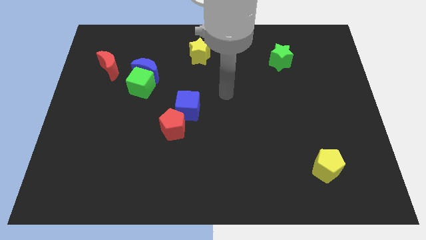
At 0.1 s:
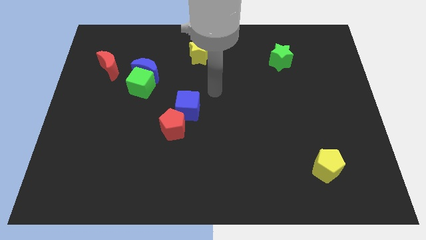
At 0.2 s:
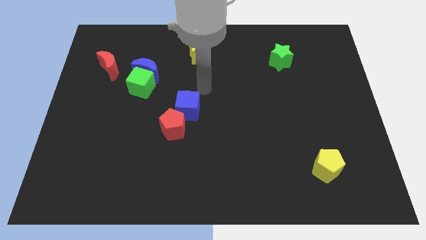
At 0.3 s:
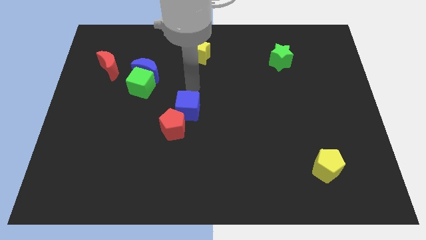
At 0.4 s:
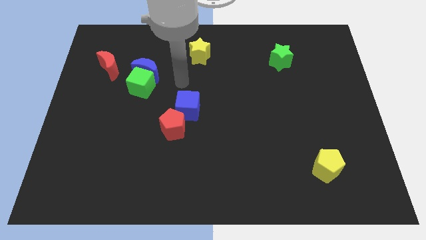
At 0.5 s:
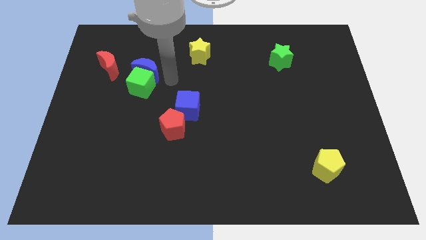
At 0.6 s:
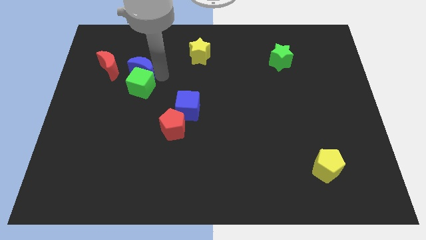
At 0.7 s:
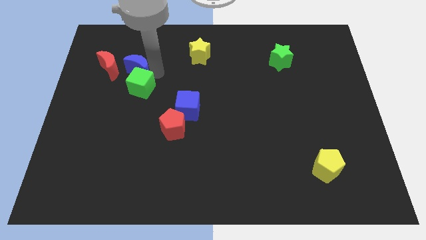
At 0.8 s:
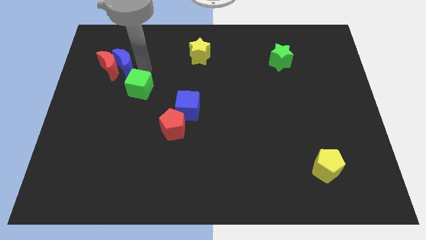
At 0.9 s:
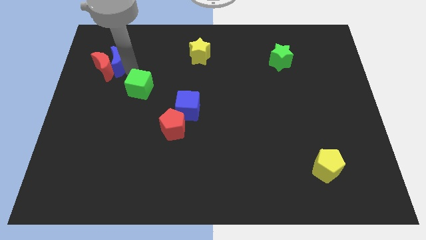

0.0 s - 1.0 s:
move the green cube away from the blue moon

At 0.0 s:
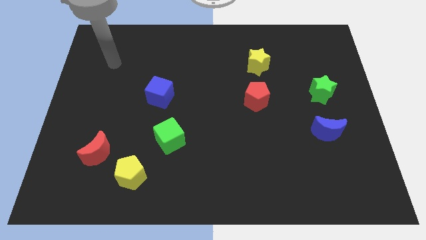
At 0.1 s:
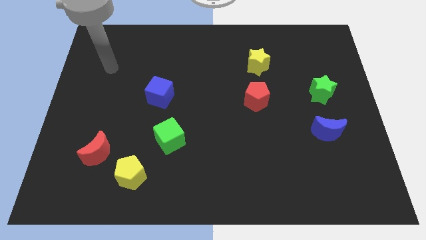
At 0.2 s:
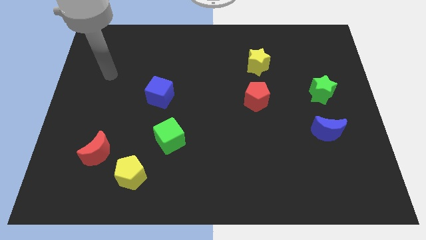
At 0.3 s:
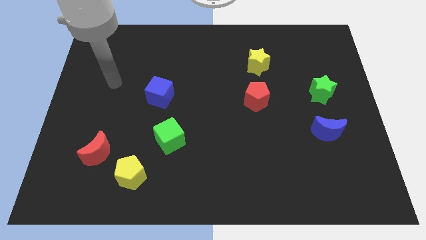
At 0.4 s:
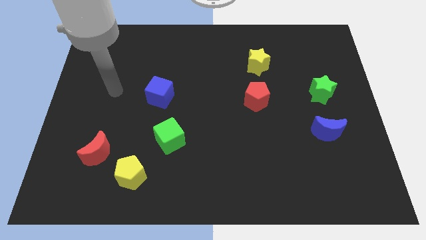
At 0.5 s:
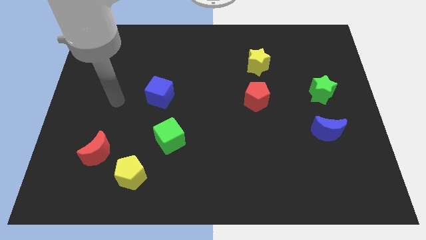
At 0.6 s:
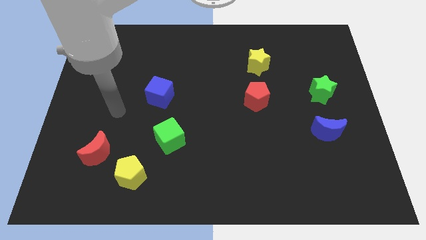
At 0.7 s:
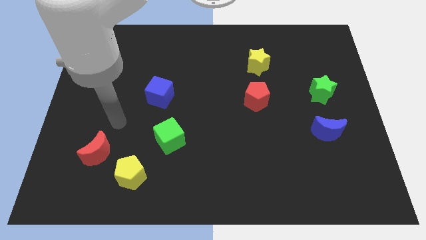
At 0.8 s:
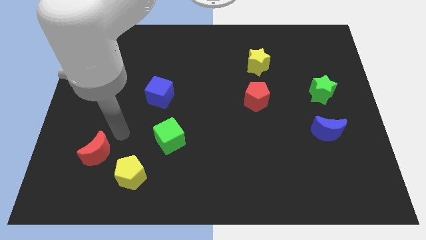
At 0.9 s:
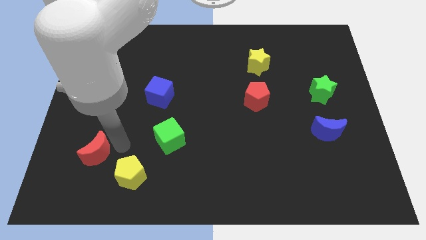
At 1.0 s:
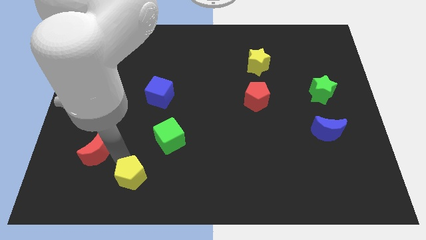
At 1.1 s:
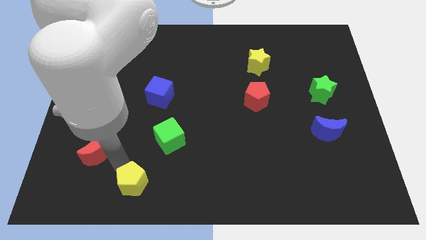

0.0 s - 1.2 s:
move the red moon away from the yellow pentagon

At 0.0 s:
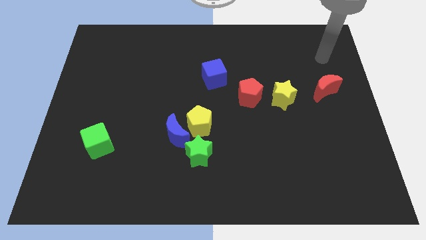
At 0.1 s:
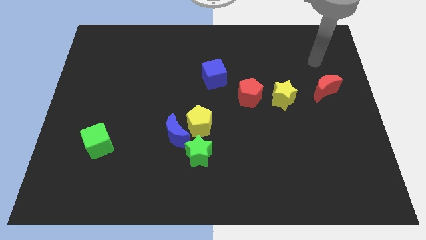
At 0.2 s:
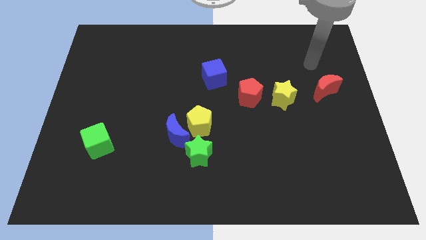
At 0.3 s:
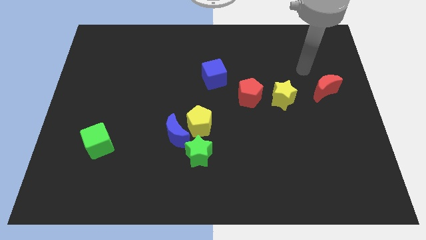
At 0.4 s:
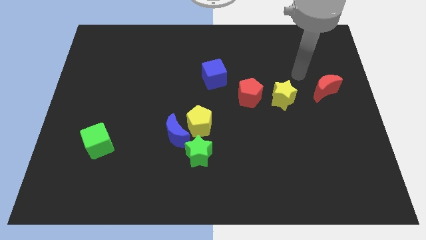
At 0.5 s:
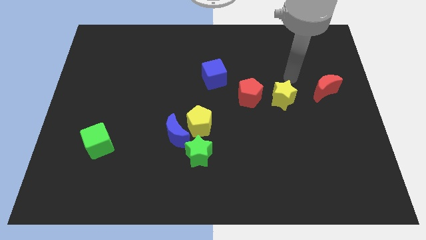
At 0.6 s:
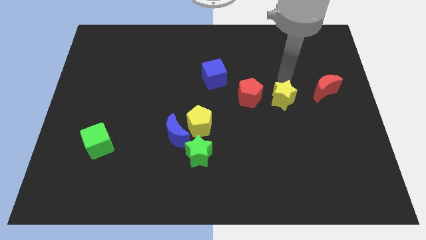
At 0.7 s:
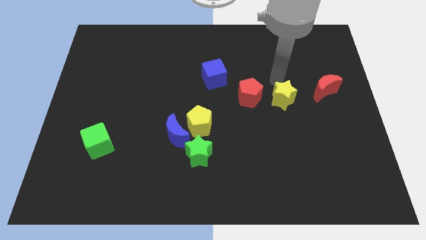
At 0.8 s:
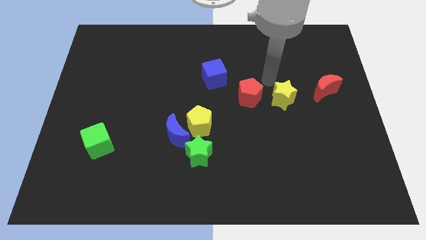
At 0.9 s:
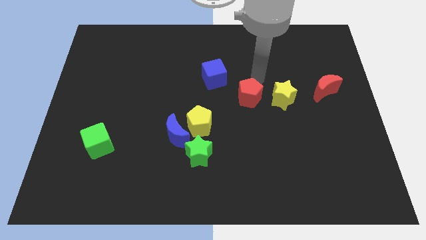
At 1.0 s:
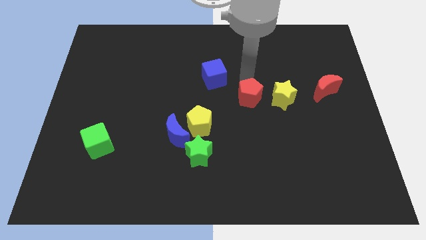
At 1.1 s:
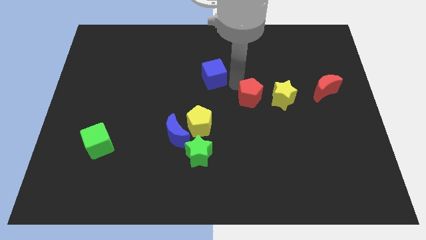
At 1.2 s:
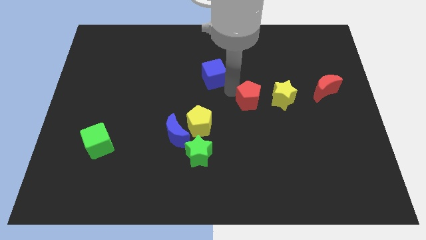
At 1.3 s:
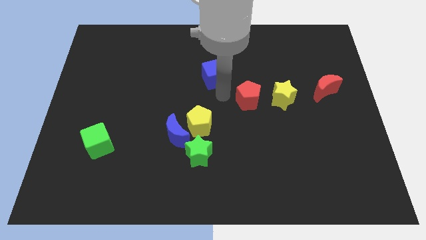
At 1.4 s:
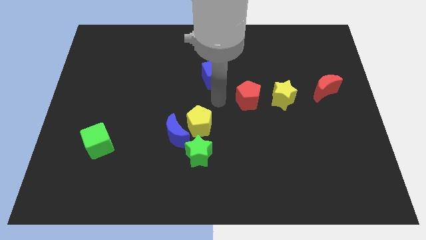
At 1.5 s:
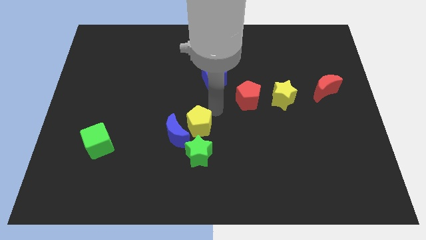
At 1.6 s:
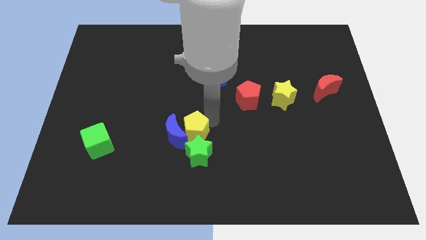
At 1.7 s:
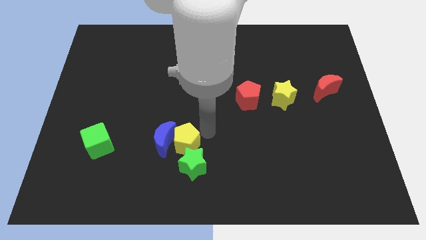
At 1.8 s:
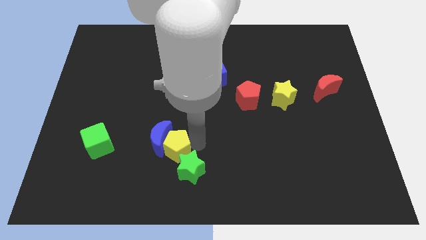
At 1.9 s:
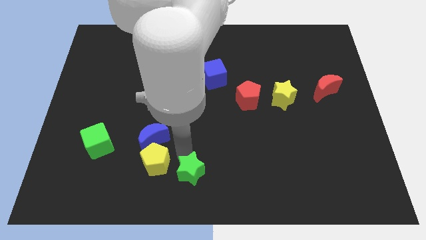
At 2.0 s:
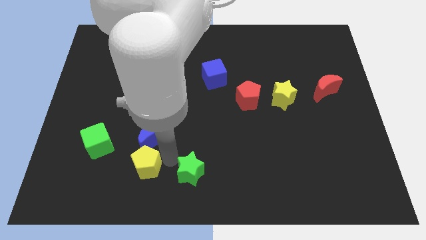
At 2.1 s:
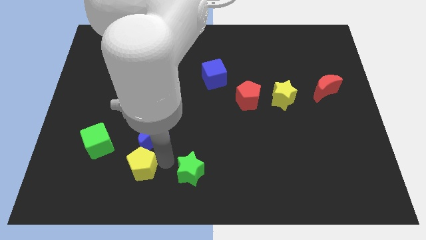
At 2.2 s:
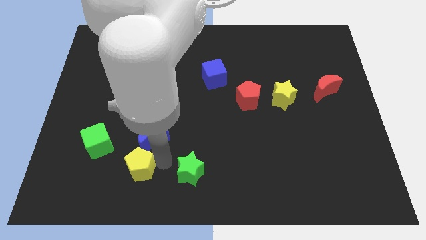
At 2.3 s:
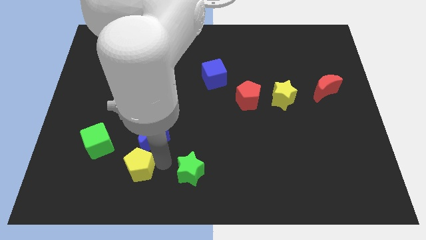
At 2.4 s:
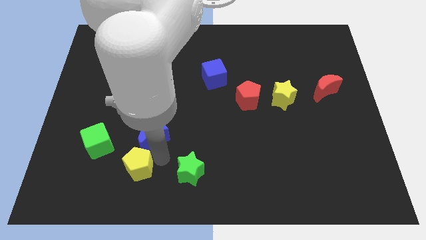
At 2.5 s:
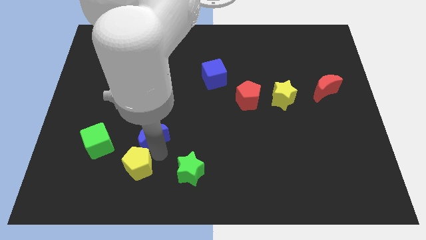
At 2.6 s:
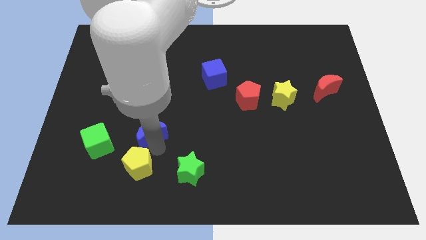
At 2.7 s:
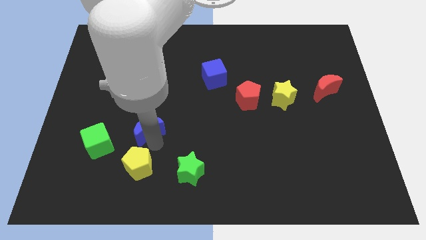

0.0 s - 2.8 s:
separate the blue moon from the yellow pentagon and green star

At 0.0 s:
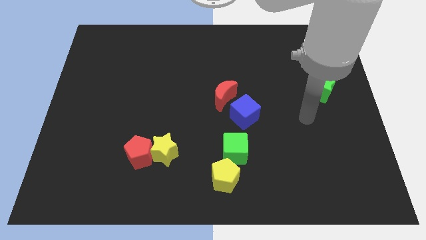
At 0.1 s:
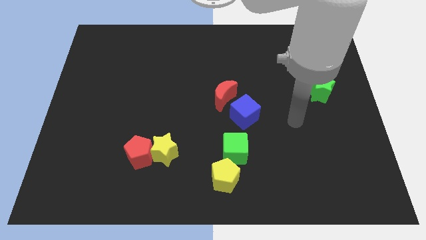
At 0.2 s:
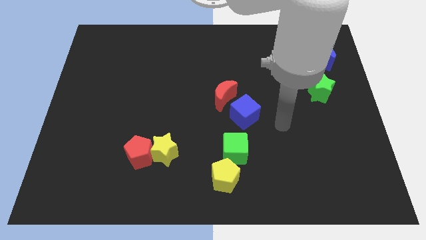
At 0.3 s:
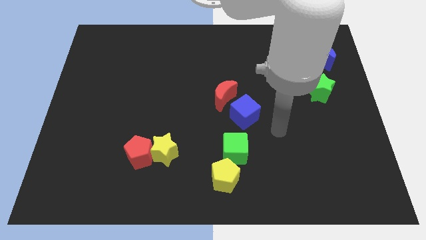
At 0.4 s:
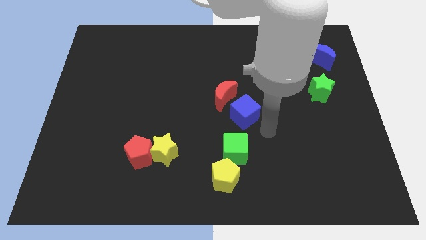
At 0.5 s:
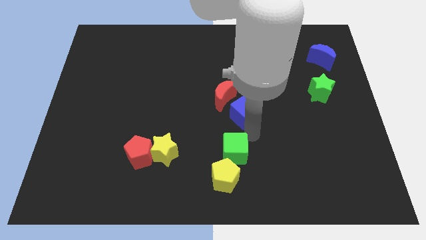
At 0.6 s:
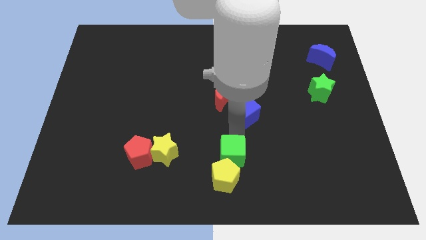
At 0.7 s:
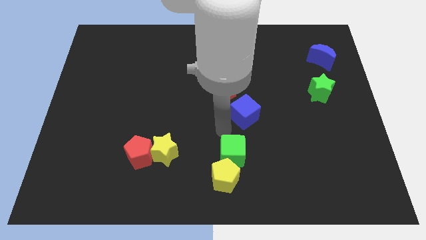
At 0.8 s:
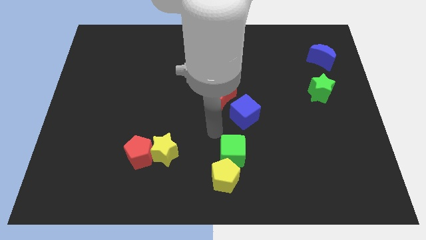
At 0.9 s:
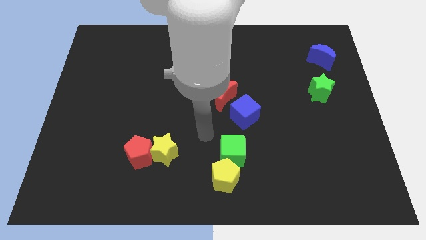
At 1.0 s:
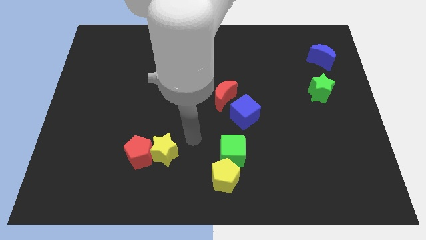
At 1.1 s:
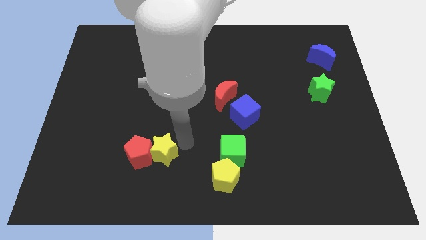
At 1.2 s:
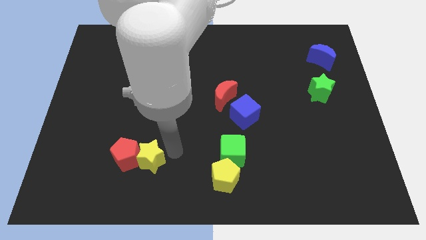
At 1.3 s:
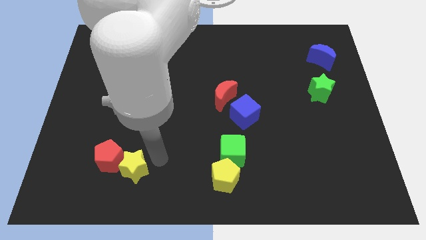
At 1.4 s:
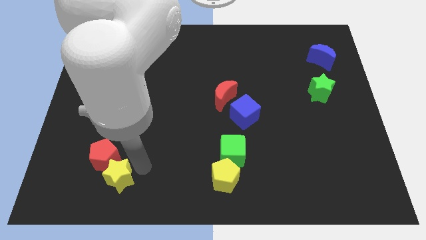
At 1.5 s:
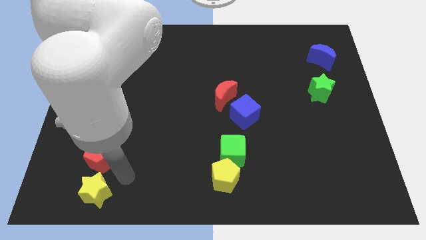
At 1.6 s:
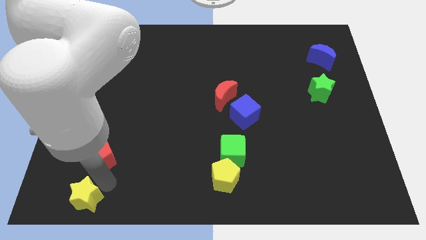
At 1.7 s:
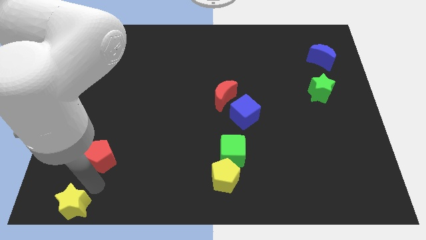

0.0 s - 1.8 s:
separate the red pentagon from the yellow star

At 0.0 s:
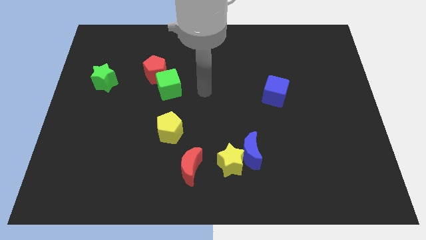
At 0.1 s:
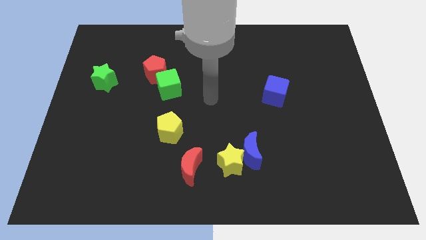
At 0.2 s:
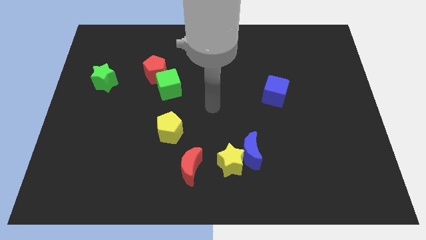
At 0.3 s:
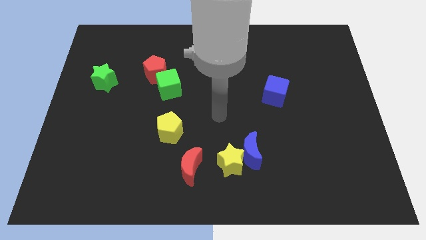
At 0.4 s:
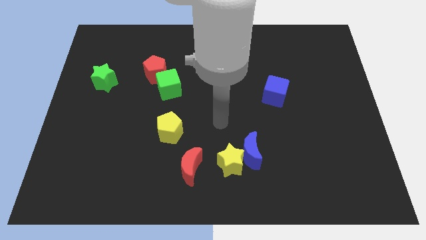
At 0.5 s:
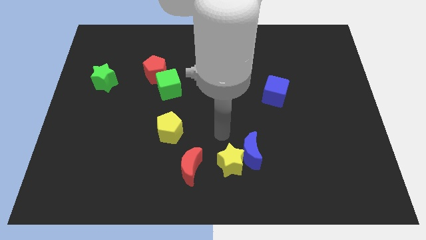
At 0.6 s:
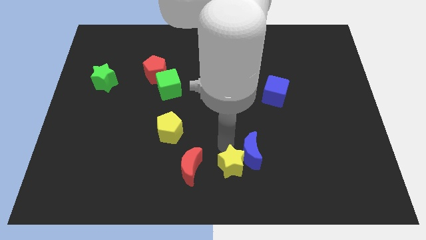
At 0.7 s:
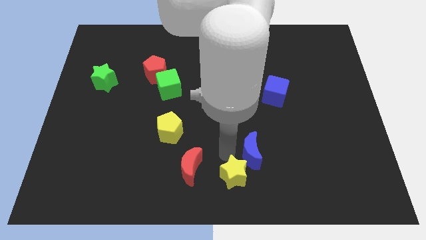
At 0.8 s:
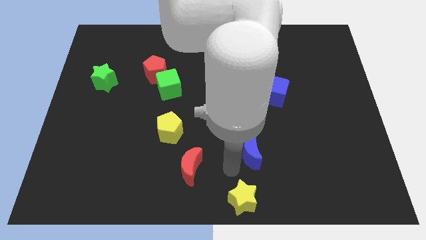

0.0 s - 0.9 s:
separate the blue moon from the yellow star

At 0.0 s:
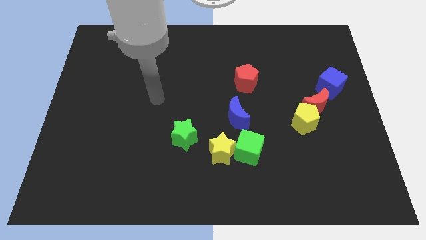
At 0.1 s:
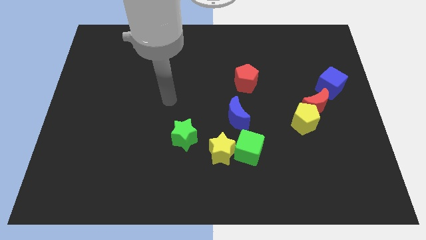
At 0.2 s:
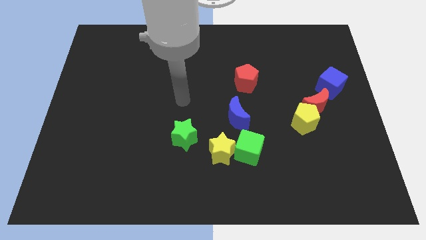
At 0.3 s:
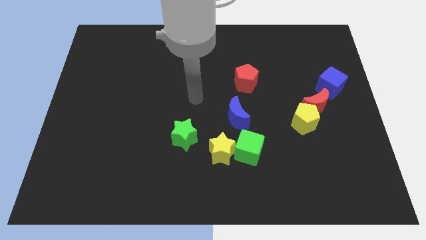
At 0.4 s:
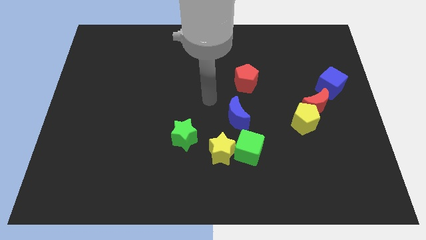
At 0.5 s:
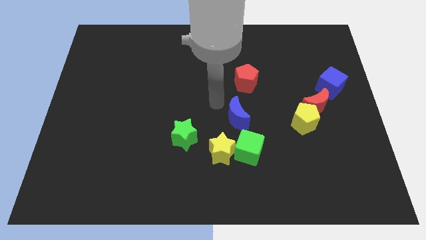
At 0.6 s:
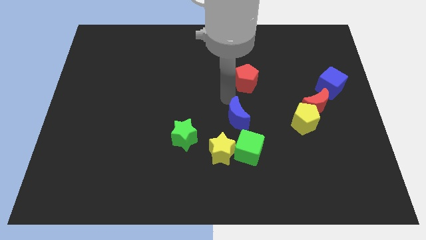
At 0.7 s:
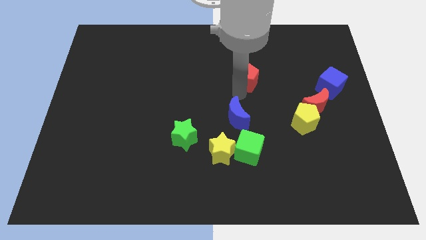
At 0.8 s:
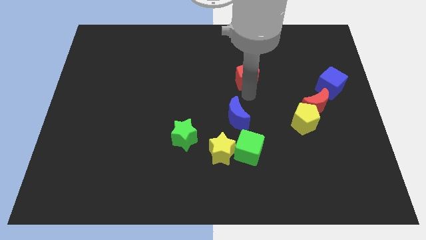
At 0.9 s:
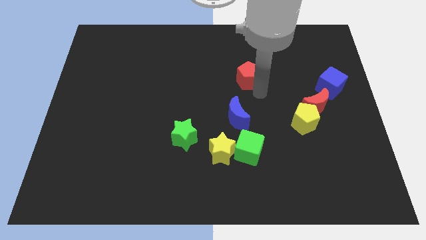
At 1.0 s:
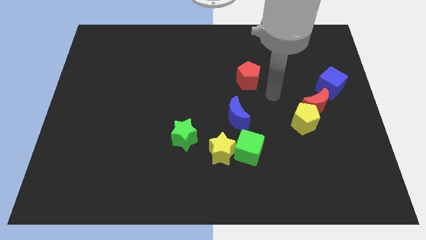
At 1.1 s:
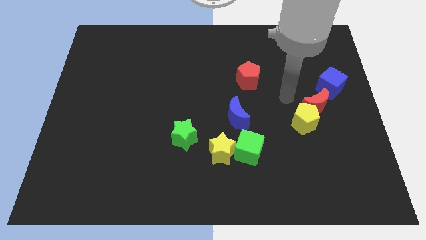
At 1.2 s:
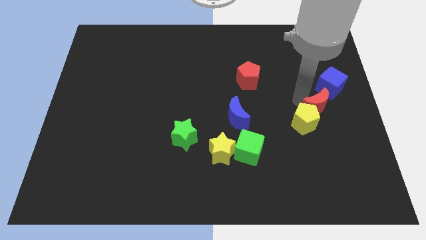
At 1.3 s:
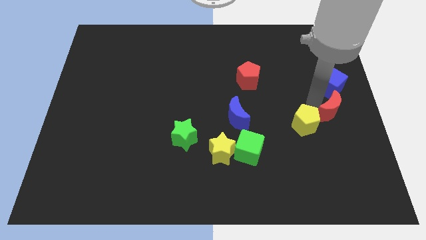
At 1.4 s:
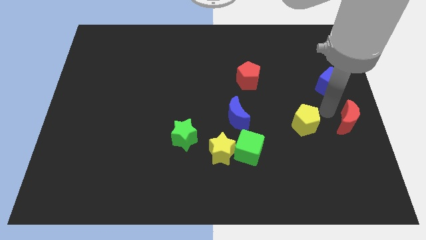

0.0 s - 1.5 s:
move the yellow pentagon away from the red moon

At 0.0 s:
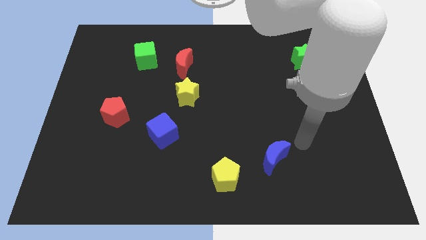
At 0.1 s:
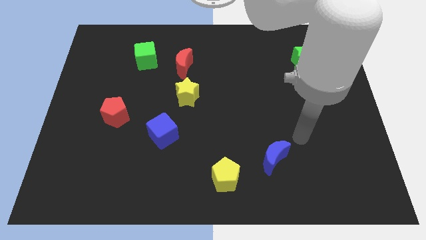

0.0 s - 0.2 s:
separate the yellow star from the red moon

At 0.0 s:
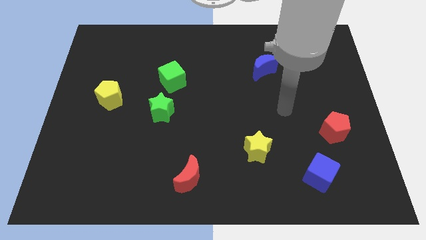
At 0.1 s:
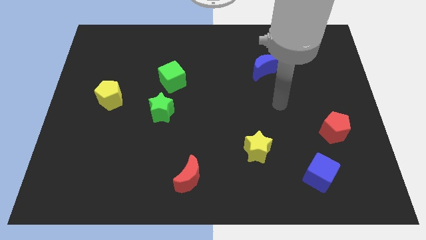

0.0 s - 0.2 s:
pull the green cube apart from the green star
